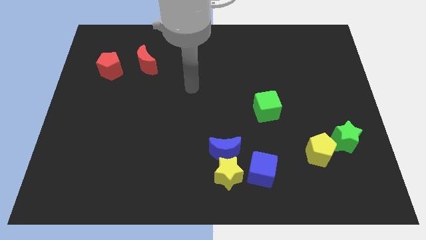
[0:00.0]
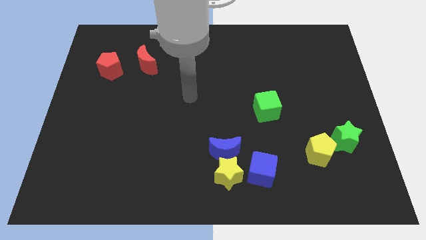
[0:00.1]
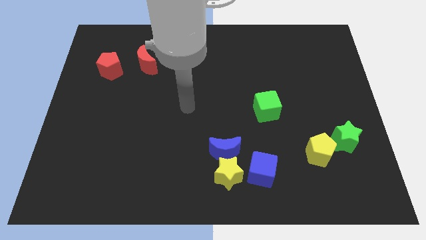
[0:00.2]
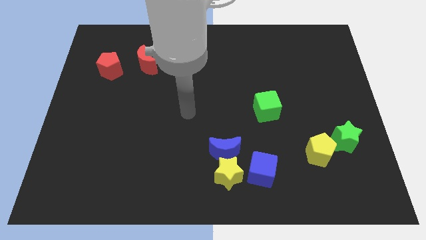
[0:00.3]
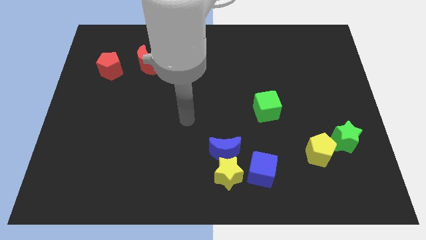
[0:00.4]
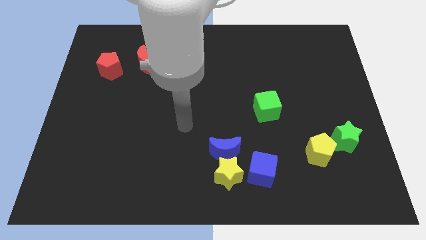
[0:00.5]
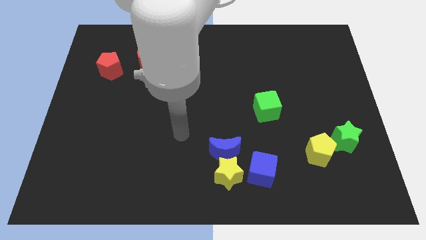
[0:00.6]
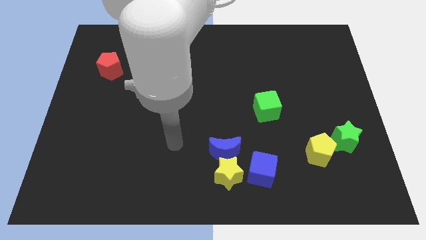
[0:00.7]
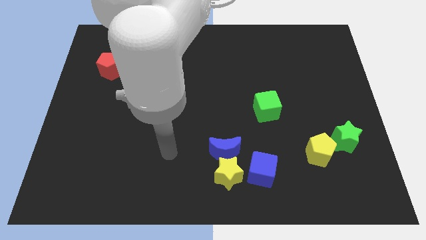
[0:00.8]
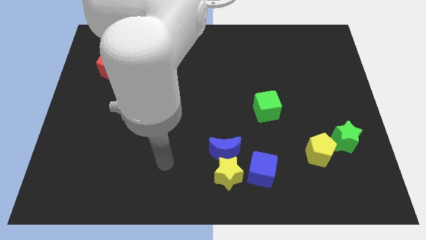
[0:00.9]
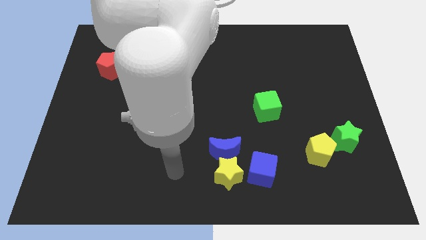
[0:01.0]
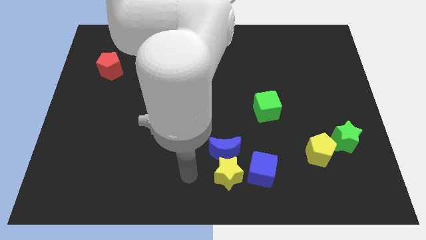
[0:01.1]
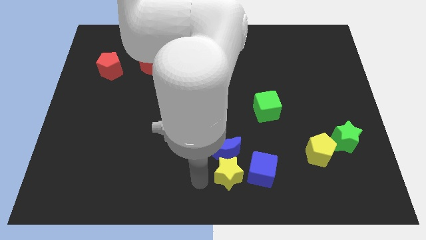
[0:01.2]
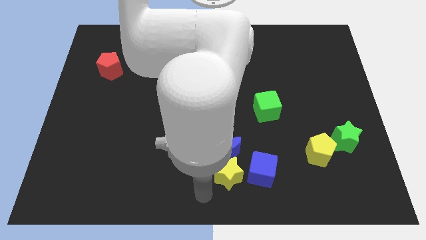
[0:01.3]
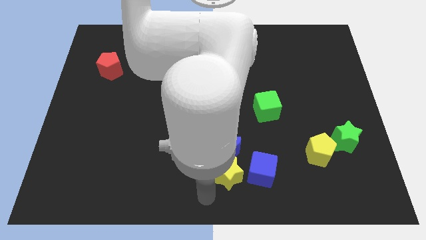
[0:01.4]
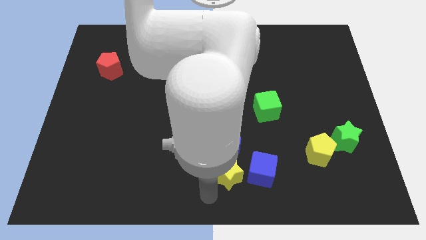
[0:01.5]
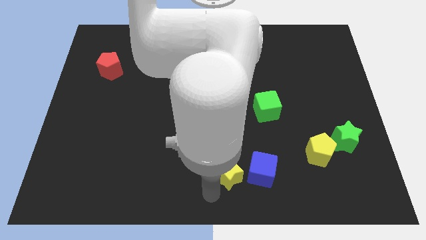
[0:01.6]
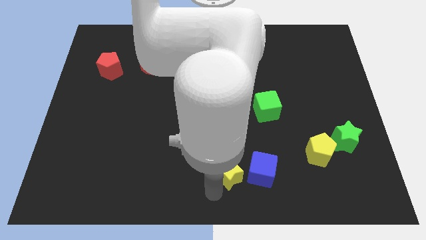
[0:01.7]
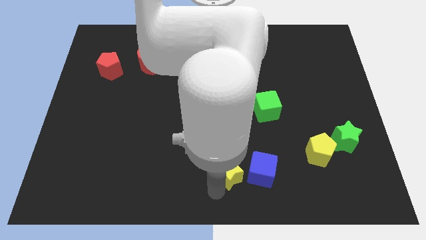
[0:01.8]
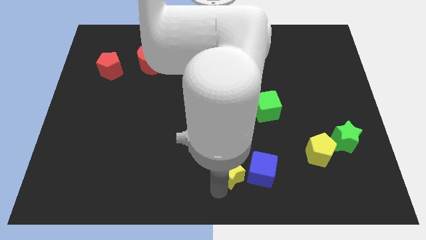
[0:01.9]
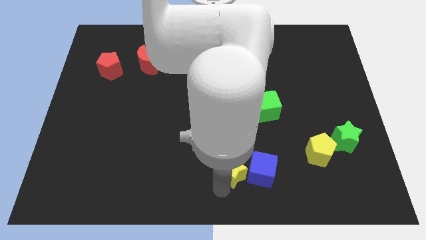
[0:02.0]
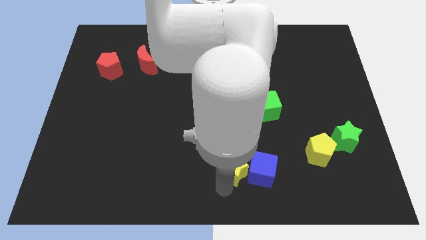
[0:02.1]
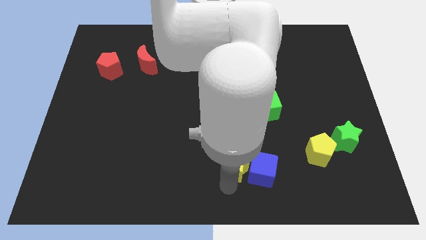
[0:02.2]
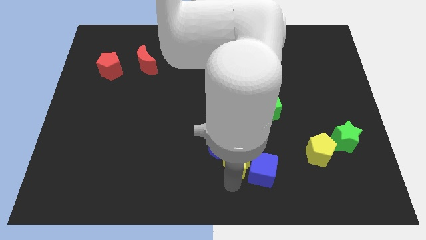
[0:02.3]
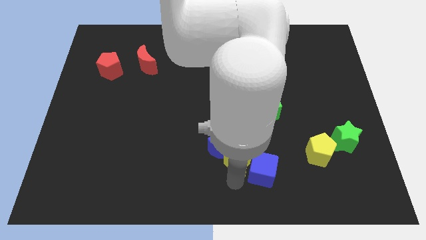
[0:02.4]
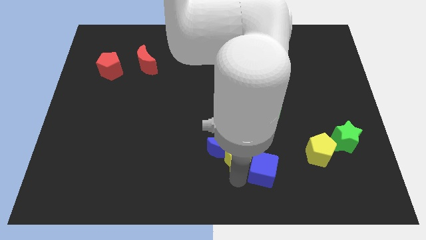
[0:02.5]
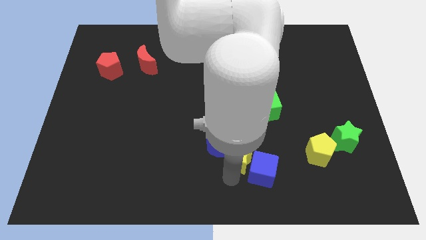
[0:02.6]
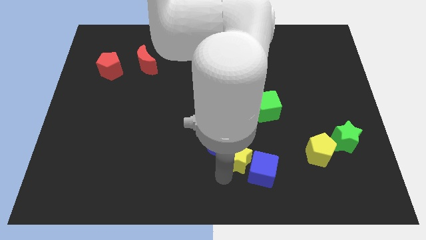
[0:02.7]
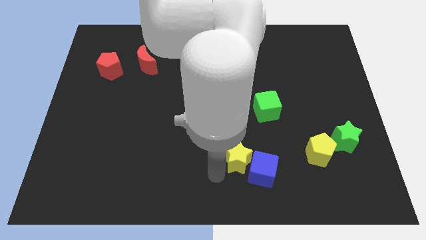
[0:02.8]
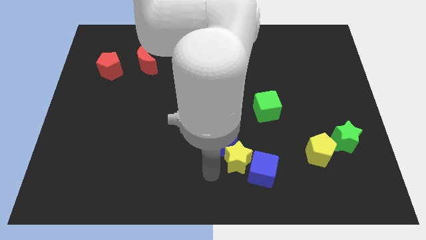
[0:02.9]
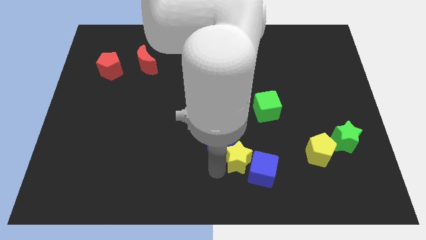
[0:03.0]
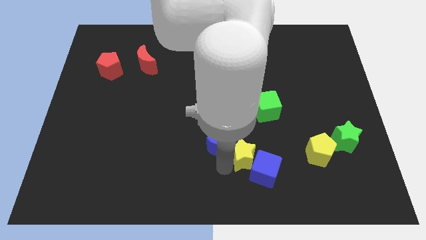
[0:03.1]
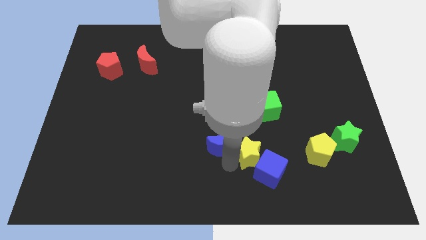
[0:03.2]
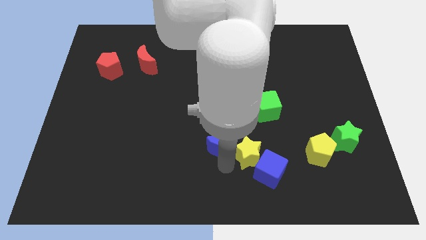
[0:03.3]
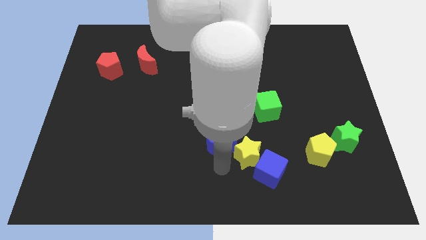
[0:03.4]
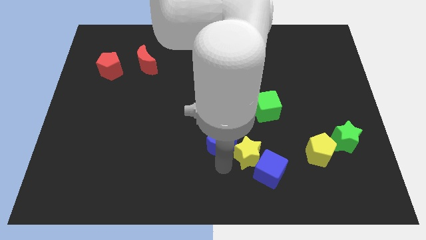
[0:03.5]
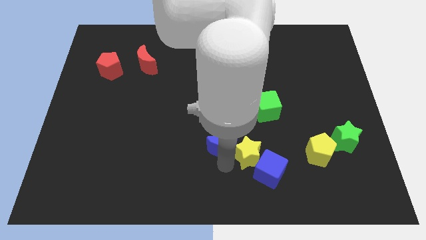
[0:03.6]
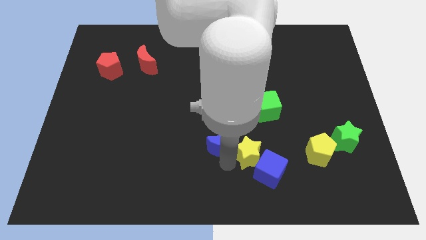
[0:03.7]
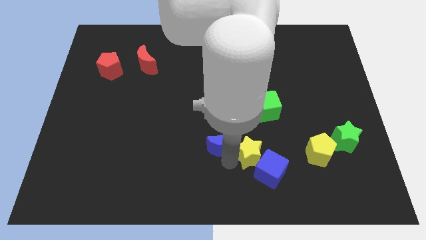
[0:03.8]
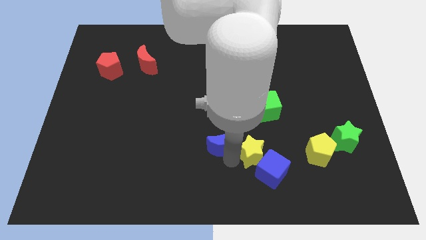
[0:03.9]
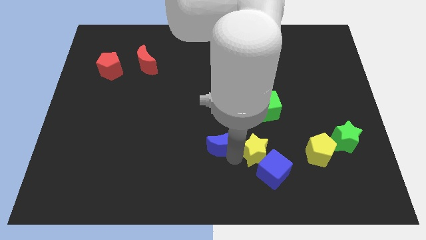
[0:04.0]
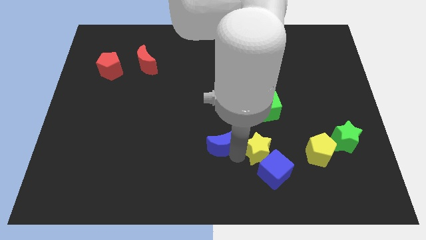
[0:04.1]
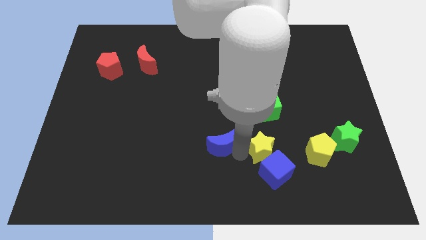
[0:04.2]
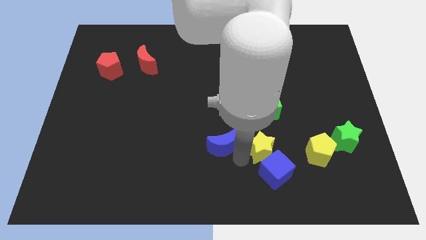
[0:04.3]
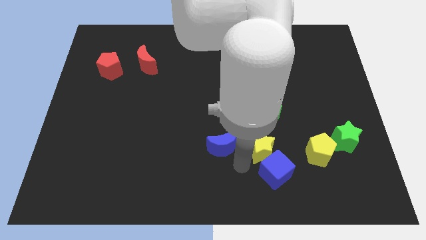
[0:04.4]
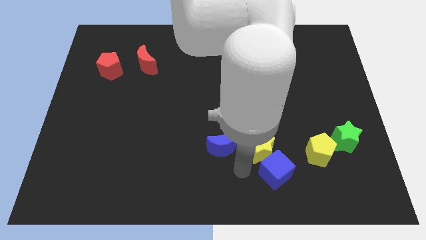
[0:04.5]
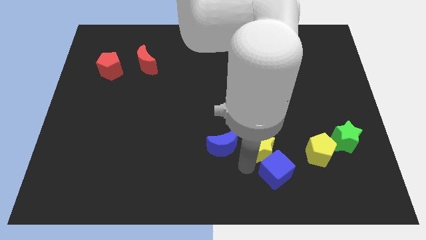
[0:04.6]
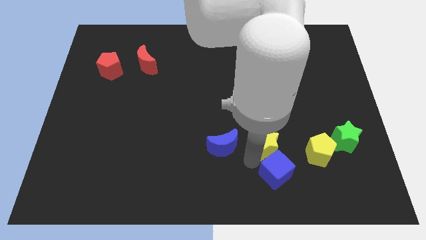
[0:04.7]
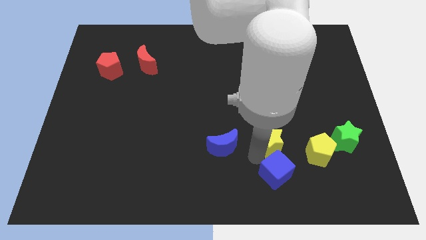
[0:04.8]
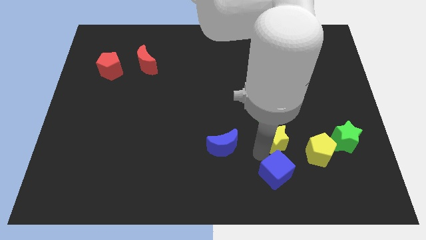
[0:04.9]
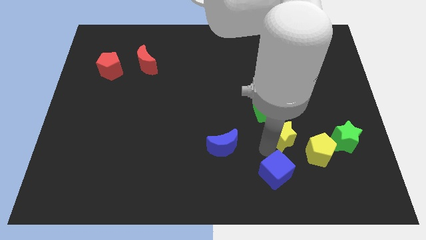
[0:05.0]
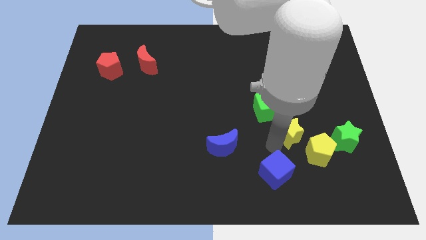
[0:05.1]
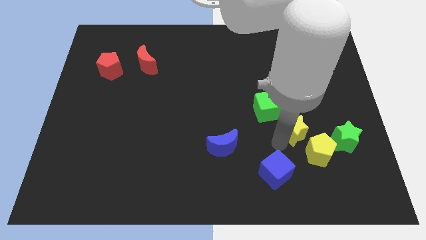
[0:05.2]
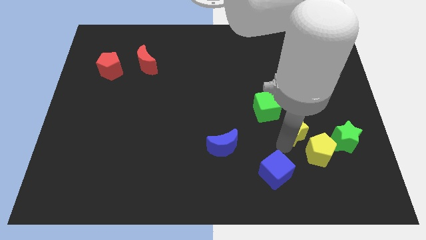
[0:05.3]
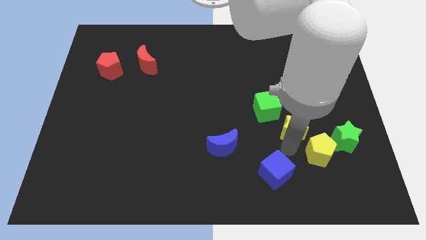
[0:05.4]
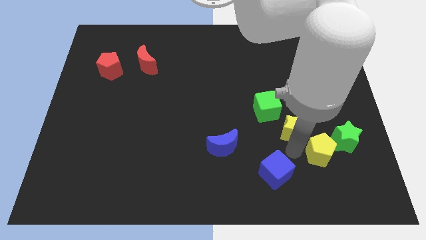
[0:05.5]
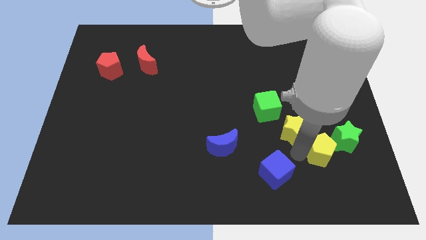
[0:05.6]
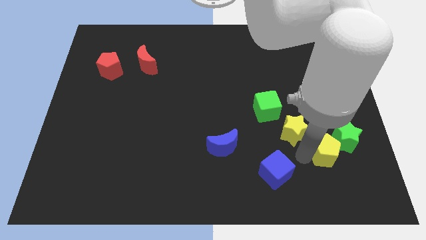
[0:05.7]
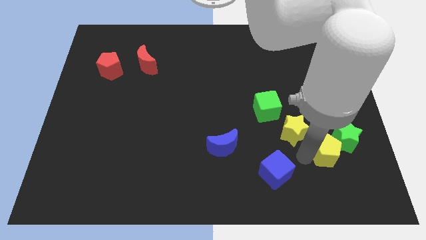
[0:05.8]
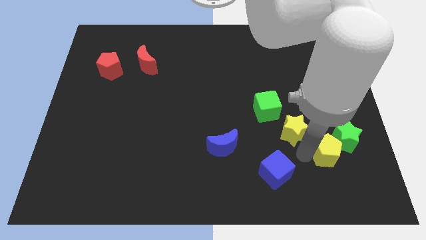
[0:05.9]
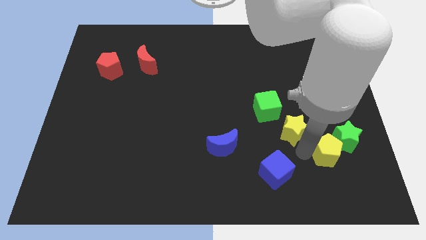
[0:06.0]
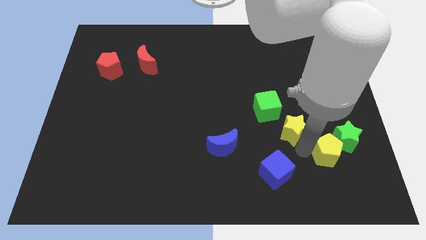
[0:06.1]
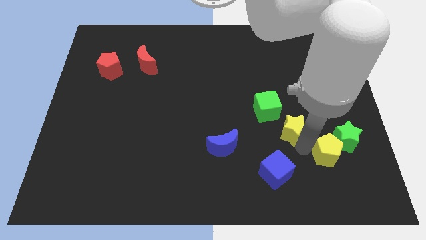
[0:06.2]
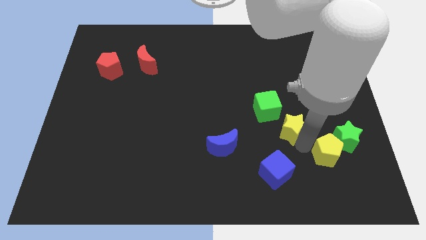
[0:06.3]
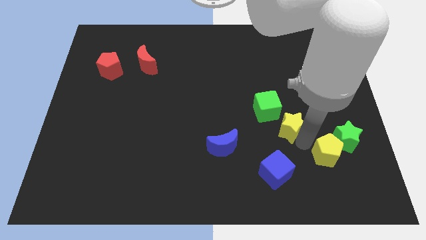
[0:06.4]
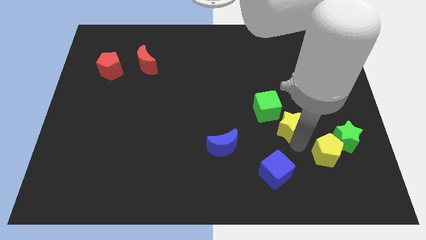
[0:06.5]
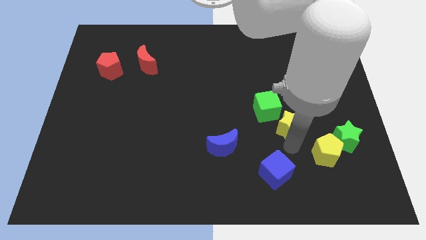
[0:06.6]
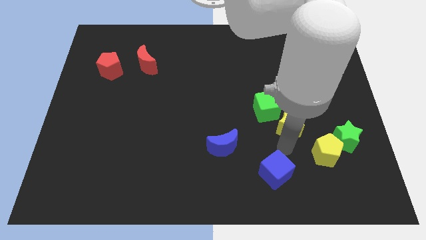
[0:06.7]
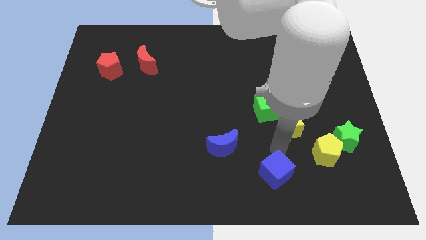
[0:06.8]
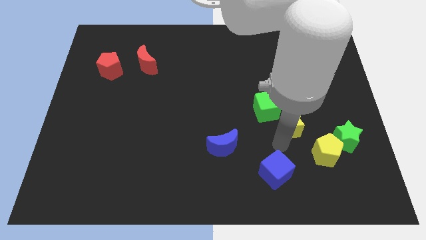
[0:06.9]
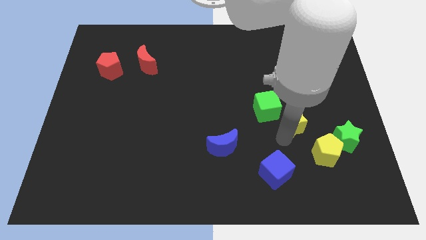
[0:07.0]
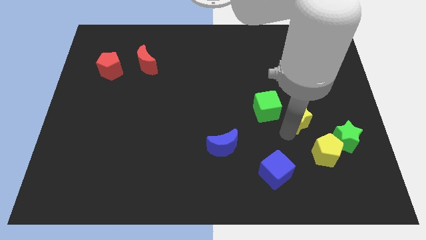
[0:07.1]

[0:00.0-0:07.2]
push the yellow star upwards and to the right diagonally

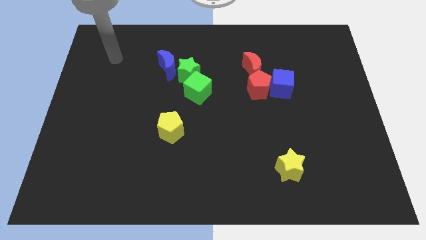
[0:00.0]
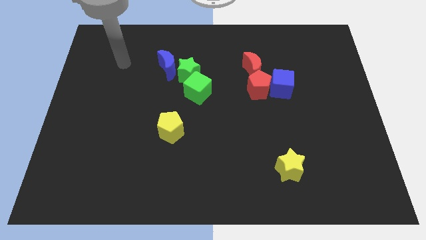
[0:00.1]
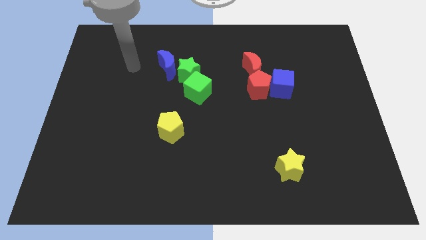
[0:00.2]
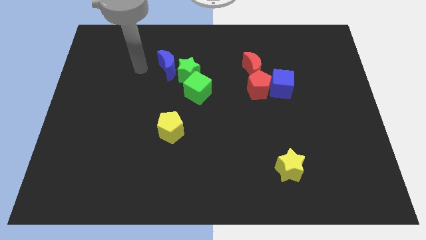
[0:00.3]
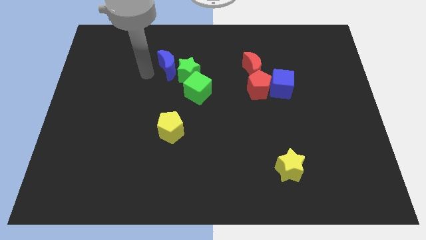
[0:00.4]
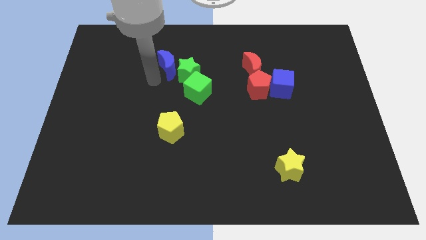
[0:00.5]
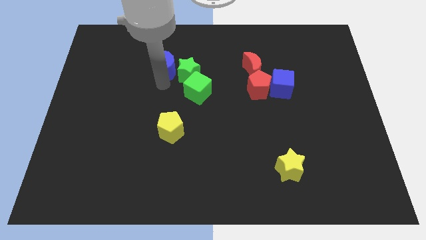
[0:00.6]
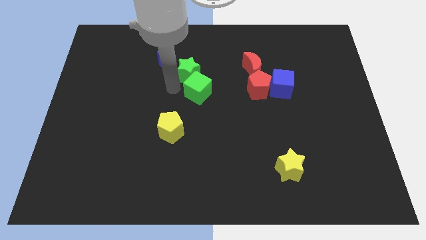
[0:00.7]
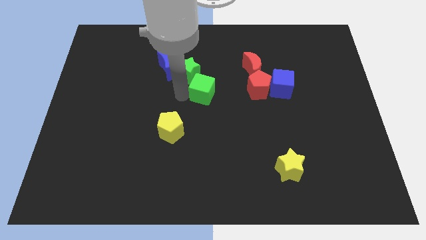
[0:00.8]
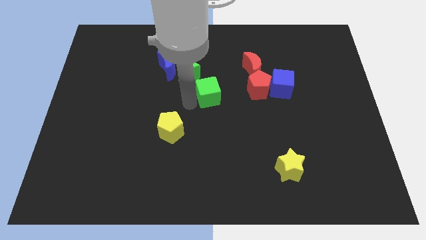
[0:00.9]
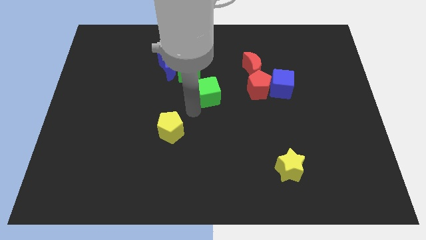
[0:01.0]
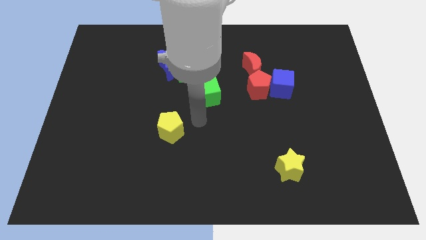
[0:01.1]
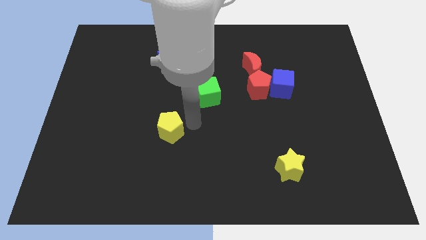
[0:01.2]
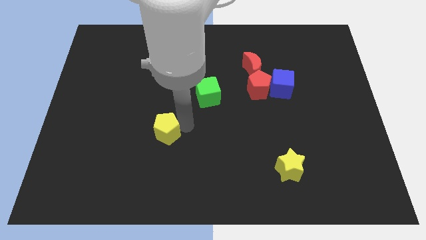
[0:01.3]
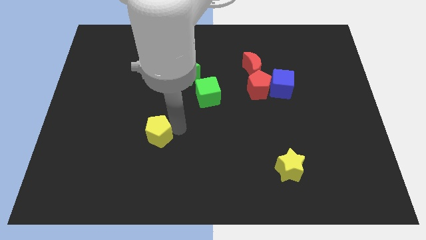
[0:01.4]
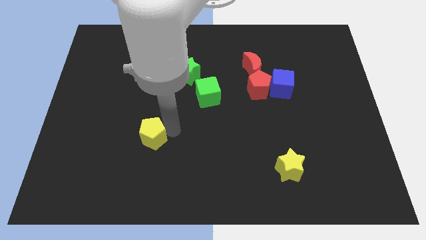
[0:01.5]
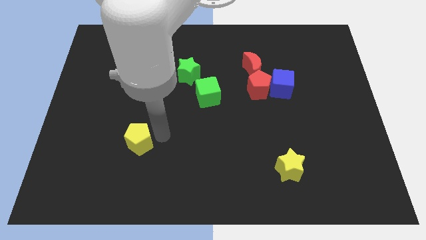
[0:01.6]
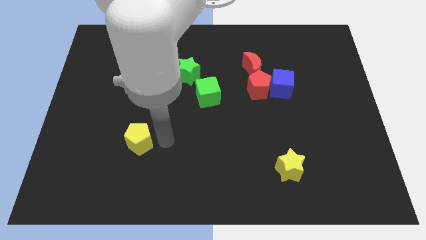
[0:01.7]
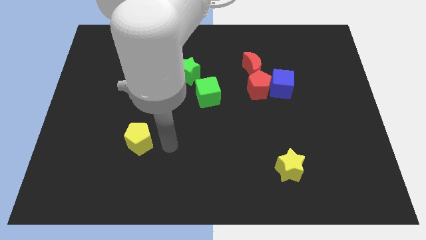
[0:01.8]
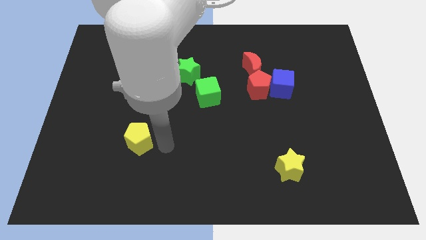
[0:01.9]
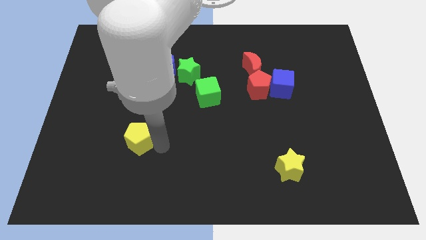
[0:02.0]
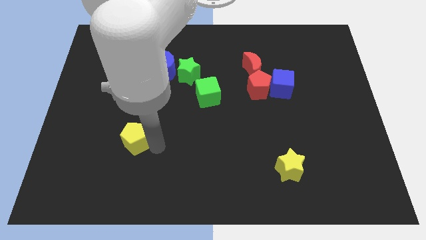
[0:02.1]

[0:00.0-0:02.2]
push the yellow pentagon a bit to the left
